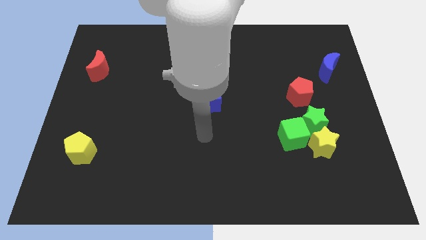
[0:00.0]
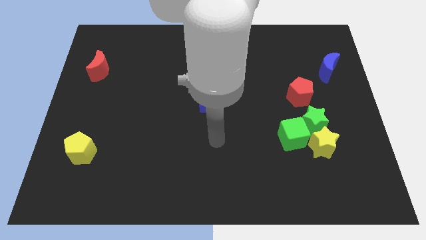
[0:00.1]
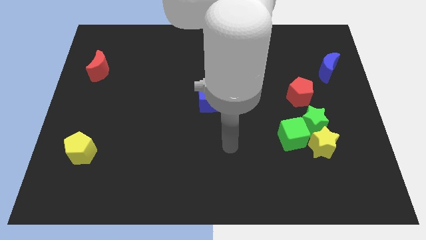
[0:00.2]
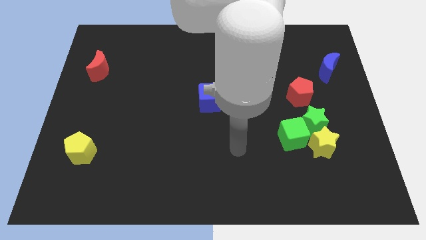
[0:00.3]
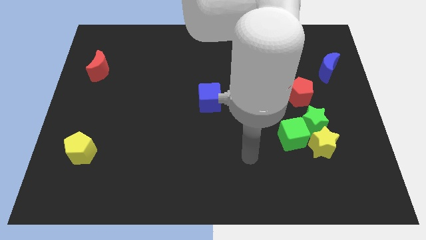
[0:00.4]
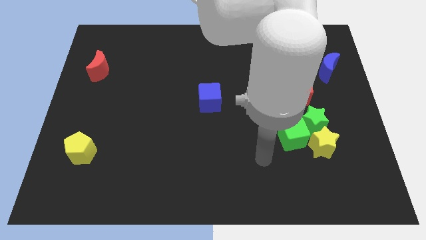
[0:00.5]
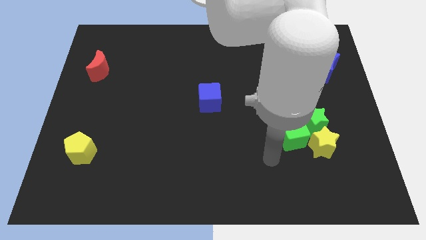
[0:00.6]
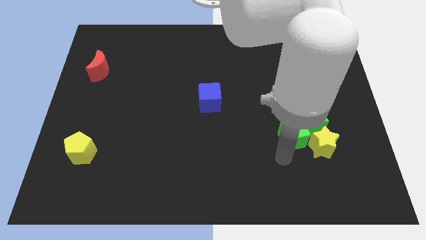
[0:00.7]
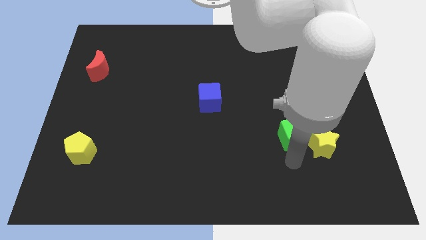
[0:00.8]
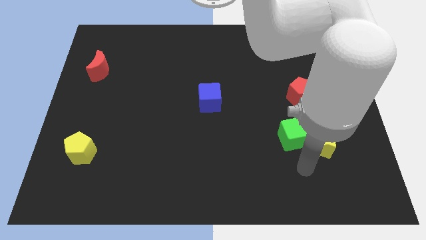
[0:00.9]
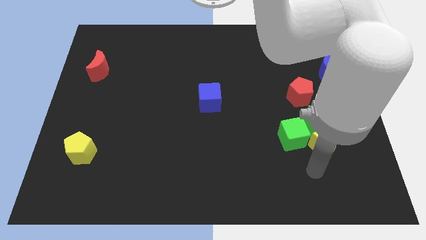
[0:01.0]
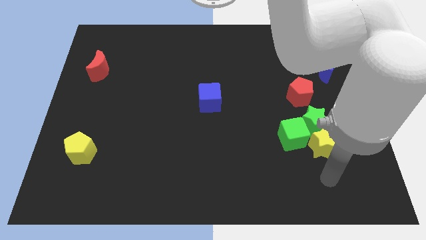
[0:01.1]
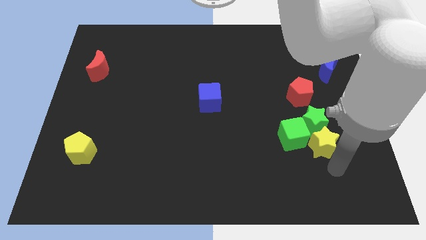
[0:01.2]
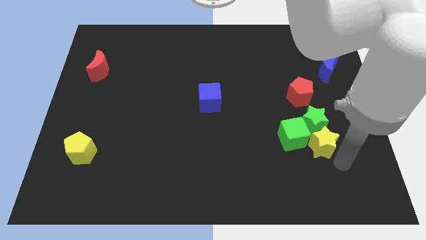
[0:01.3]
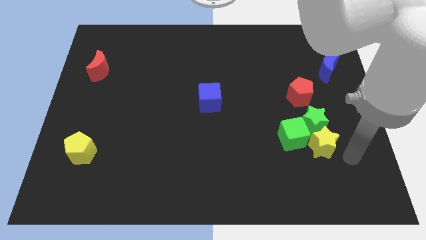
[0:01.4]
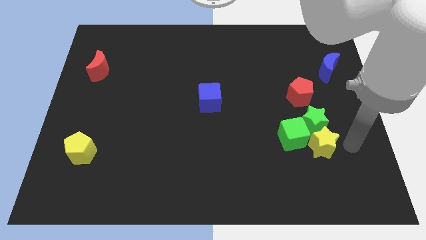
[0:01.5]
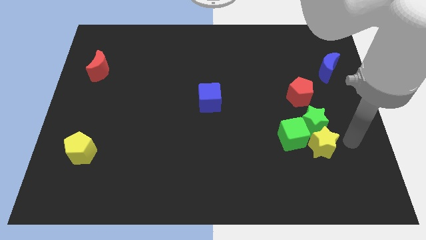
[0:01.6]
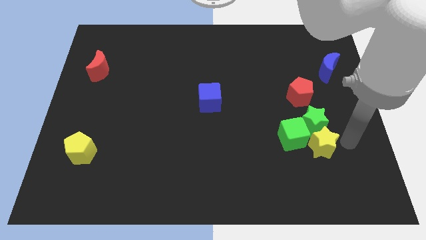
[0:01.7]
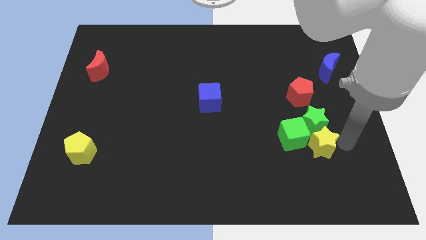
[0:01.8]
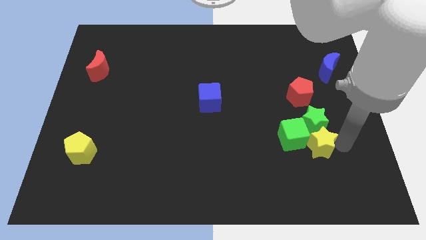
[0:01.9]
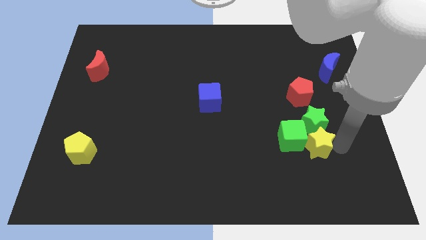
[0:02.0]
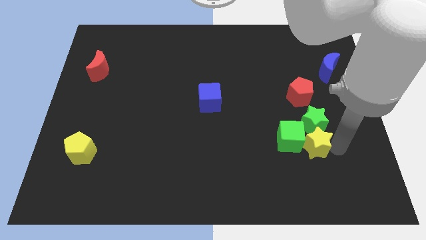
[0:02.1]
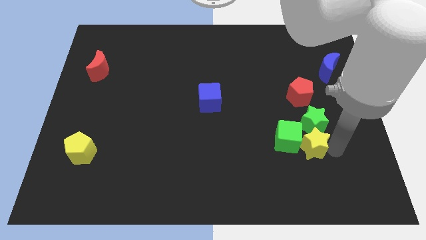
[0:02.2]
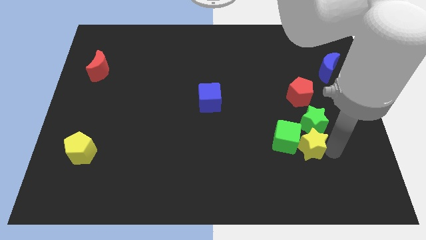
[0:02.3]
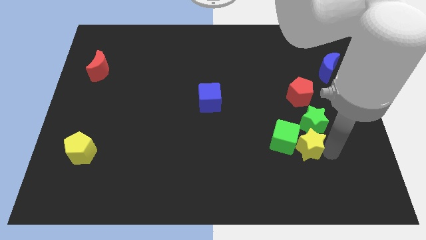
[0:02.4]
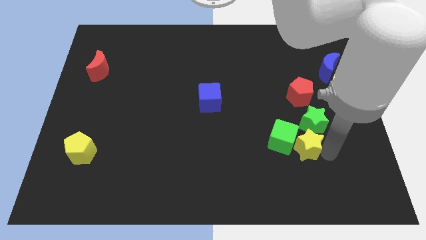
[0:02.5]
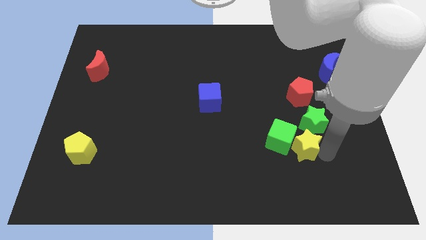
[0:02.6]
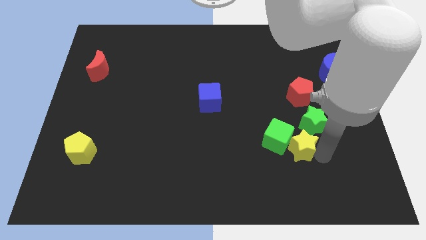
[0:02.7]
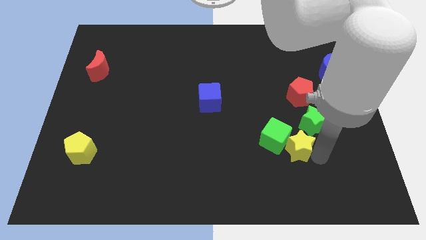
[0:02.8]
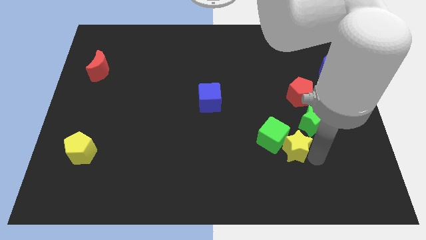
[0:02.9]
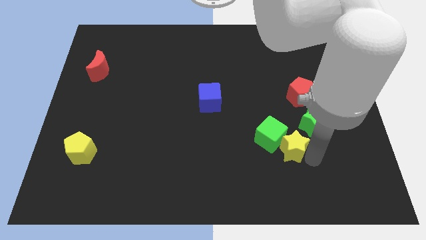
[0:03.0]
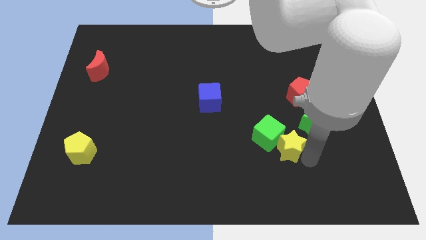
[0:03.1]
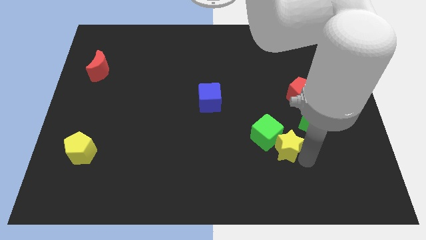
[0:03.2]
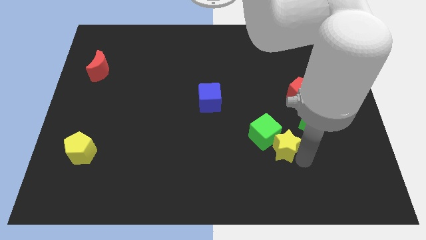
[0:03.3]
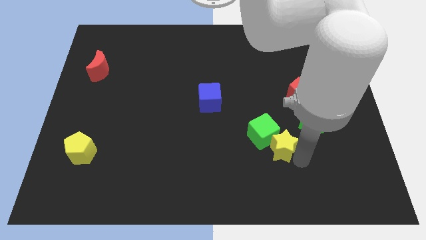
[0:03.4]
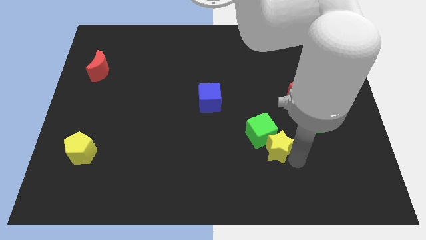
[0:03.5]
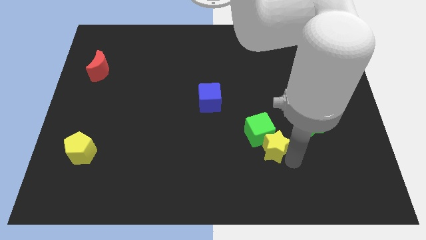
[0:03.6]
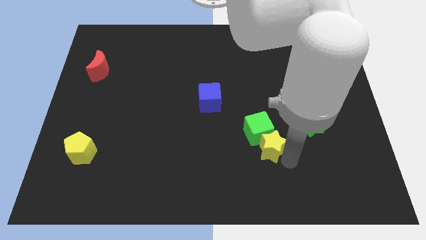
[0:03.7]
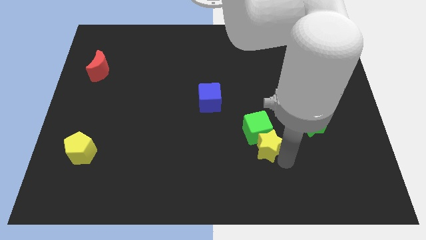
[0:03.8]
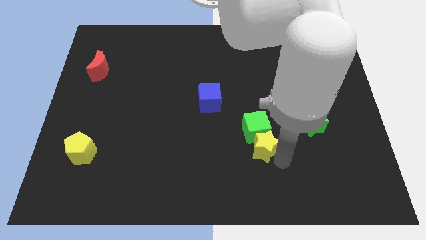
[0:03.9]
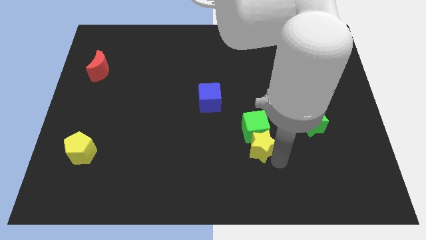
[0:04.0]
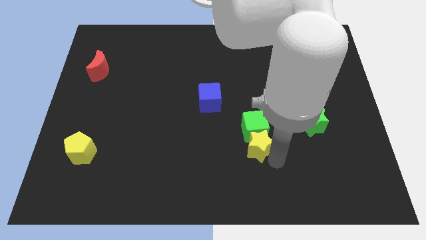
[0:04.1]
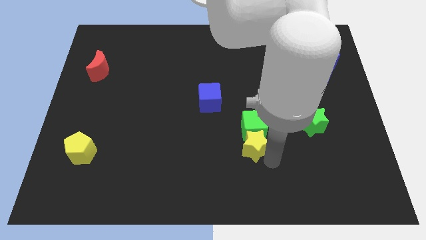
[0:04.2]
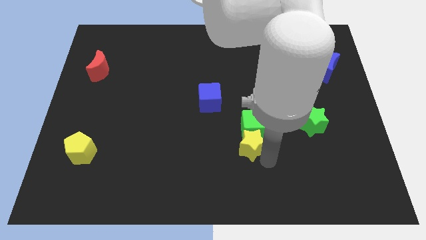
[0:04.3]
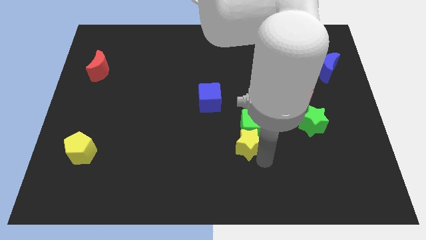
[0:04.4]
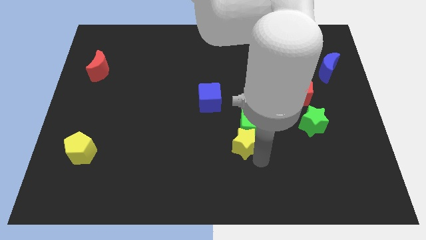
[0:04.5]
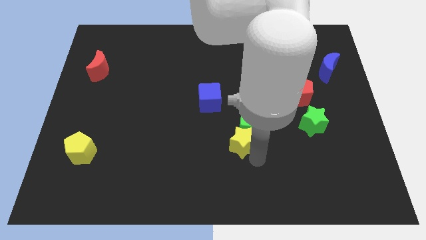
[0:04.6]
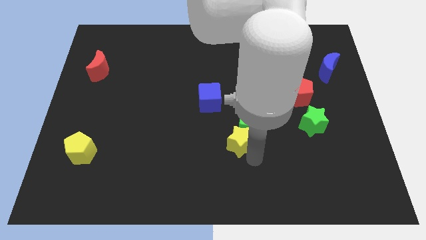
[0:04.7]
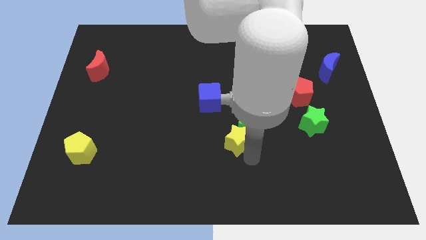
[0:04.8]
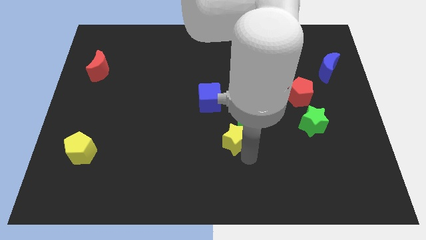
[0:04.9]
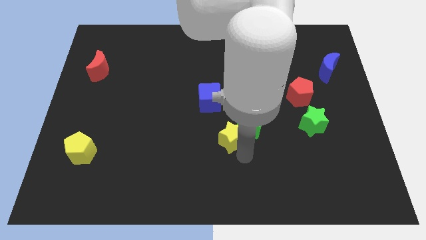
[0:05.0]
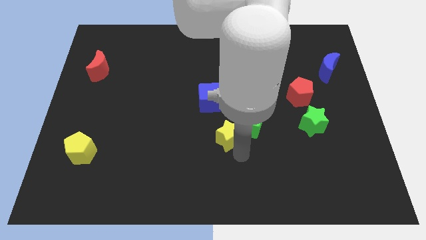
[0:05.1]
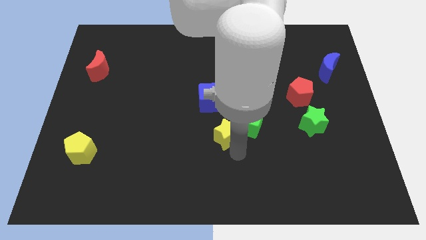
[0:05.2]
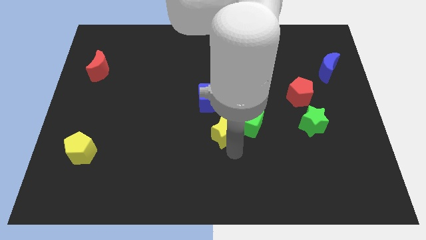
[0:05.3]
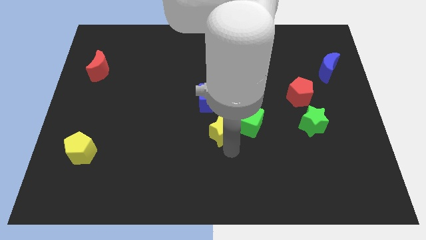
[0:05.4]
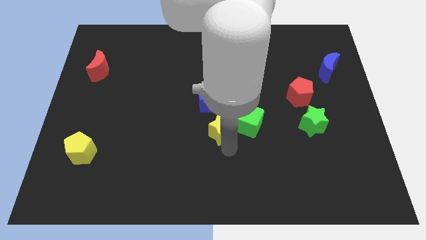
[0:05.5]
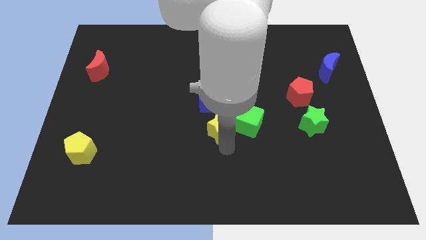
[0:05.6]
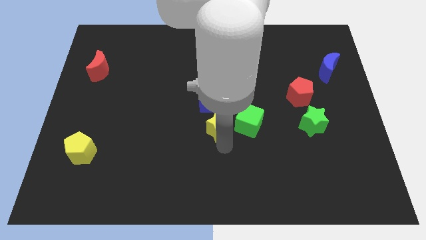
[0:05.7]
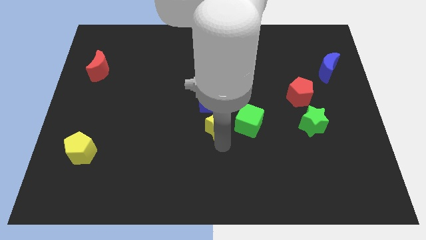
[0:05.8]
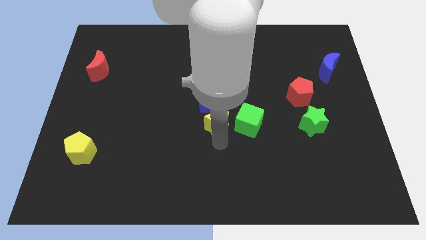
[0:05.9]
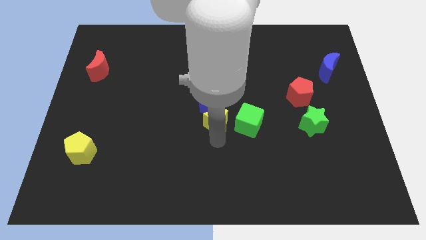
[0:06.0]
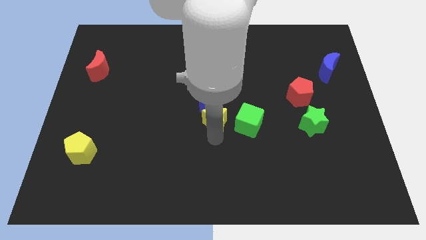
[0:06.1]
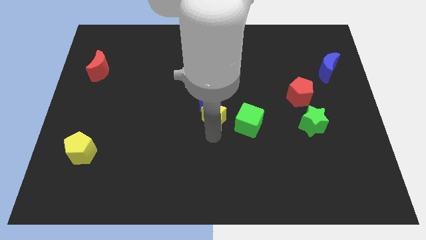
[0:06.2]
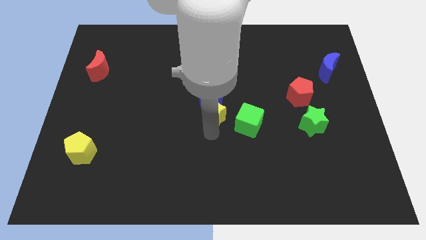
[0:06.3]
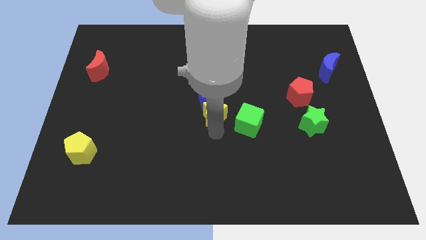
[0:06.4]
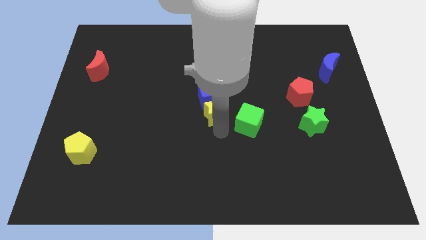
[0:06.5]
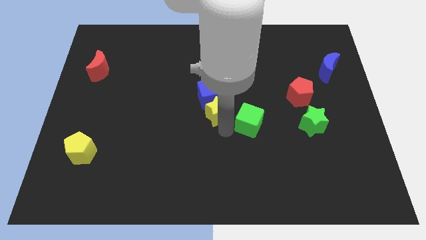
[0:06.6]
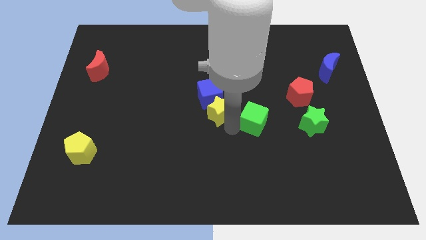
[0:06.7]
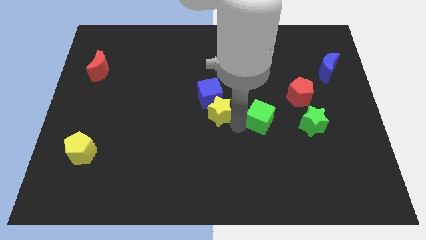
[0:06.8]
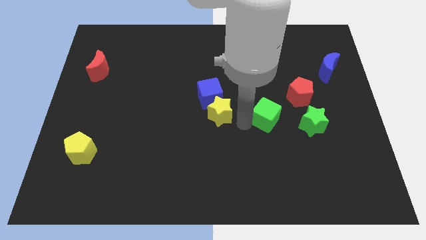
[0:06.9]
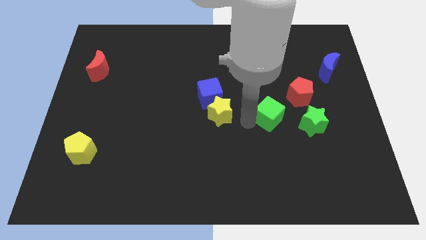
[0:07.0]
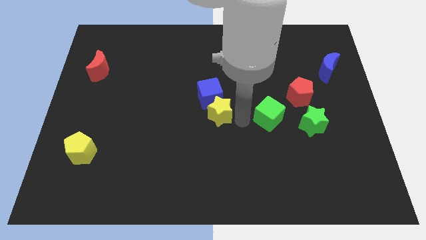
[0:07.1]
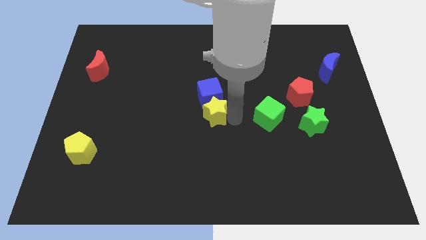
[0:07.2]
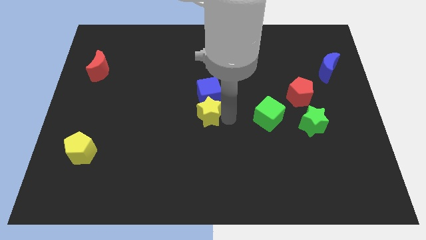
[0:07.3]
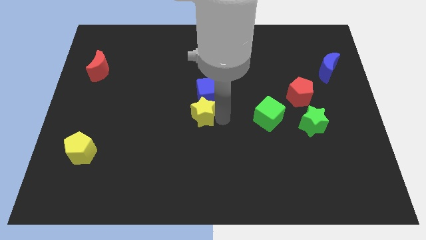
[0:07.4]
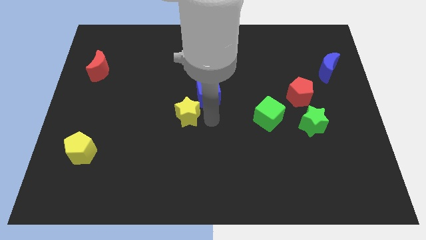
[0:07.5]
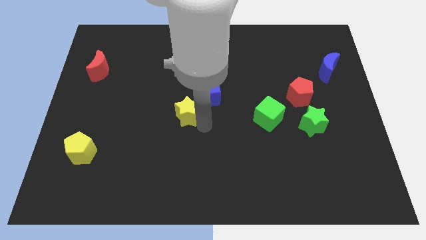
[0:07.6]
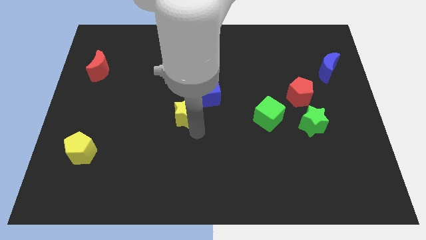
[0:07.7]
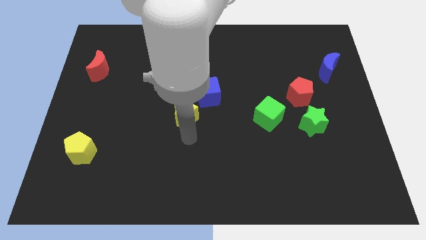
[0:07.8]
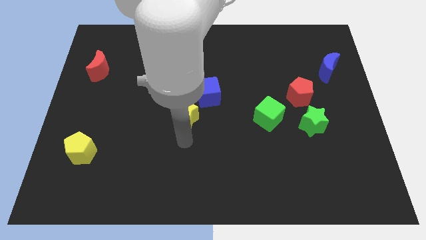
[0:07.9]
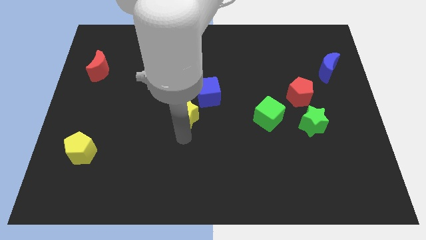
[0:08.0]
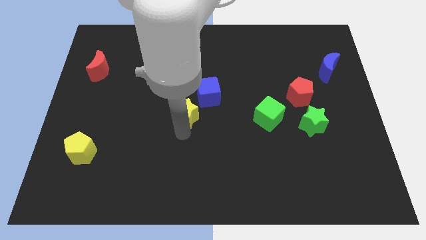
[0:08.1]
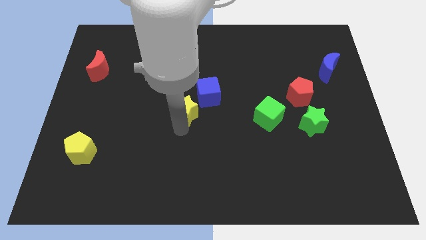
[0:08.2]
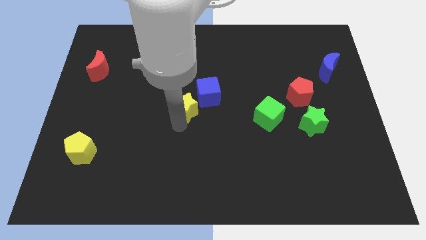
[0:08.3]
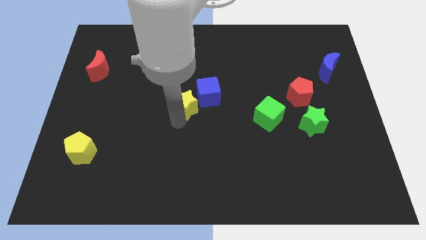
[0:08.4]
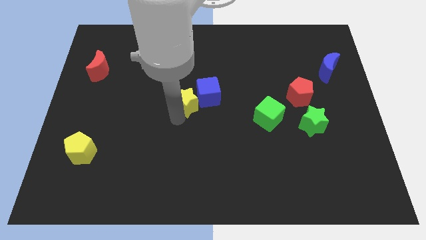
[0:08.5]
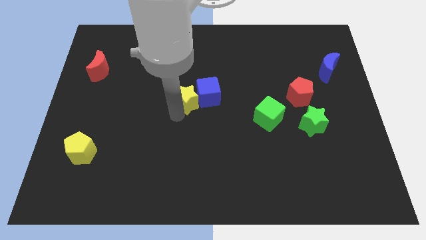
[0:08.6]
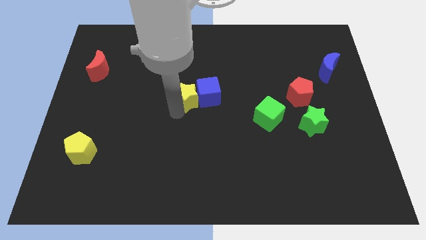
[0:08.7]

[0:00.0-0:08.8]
put the yellow star to the top left side of the blue cube
